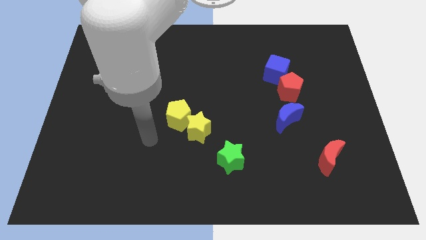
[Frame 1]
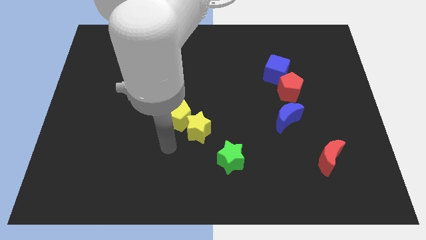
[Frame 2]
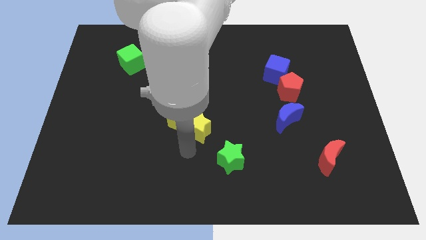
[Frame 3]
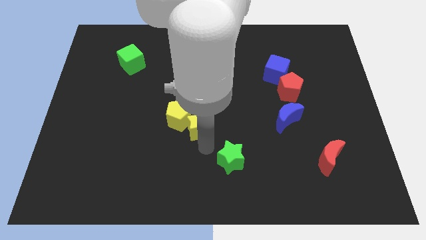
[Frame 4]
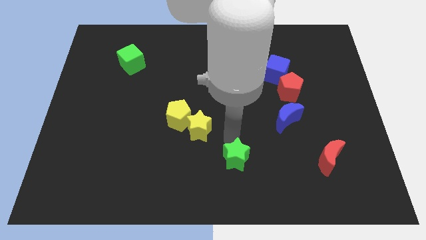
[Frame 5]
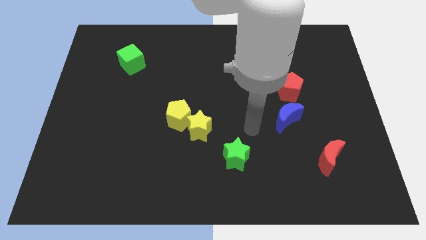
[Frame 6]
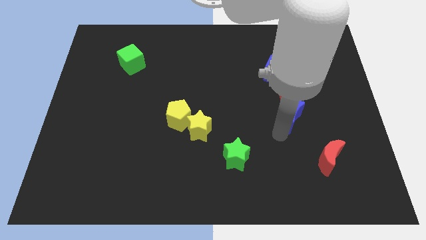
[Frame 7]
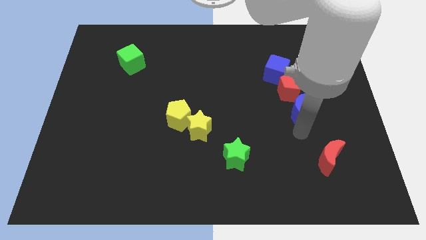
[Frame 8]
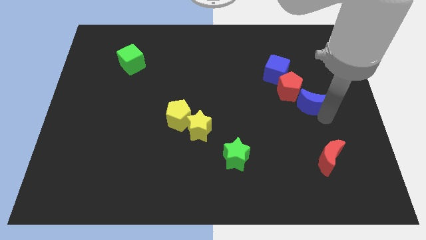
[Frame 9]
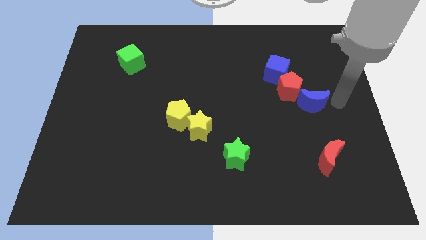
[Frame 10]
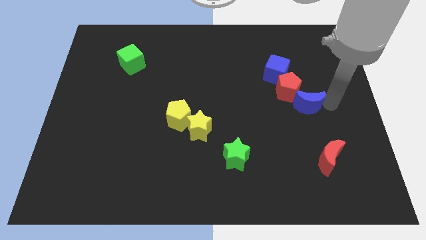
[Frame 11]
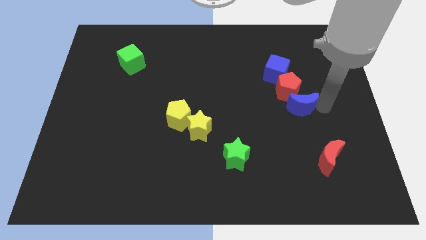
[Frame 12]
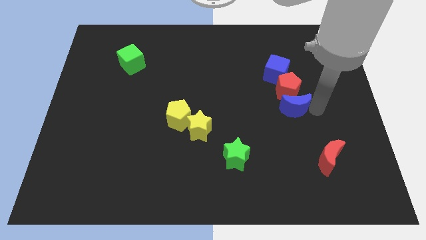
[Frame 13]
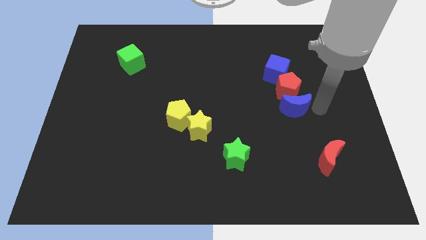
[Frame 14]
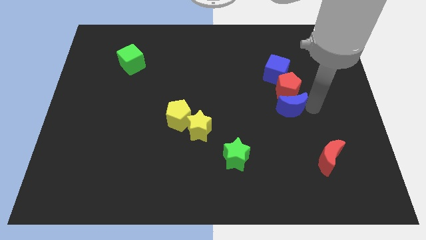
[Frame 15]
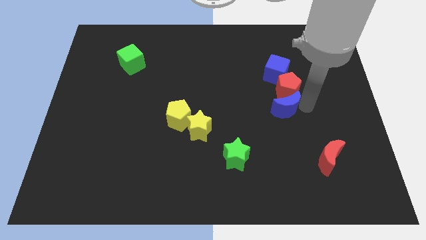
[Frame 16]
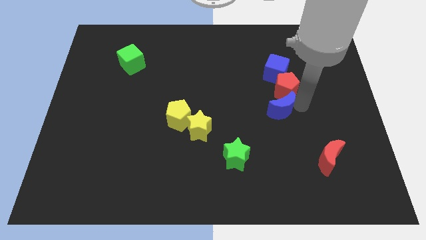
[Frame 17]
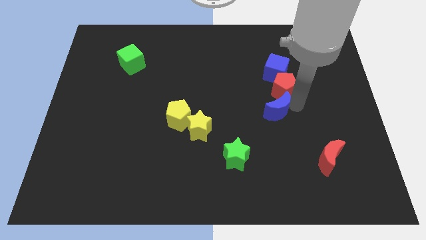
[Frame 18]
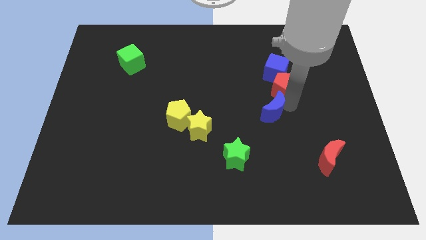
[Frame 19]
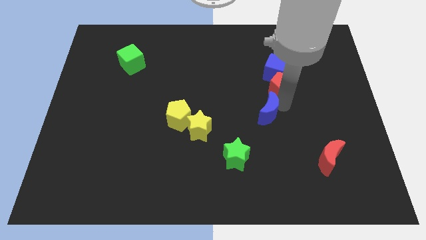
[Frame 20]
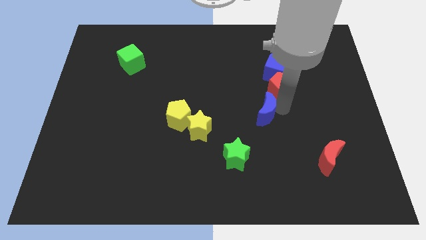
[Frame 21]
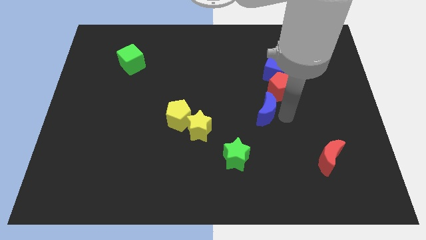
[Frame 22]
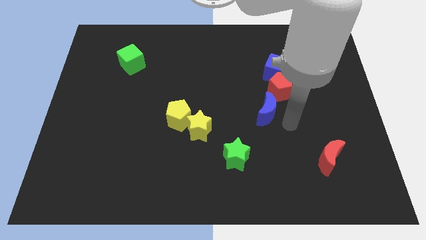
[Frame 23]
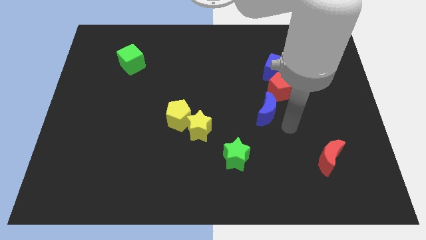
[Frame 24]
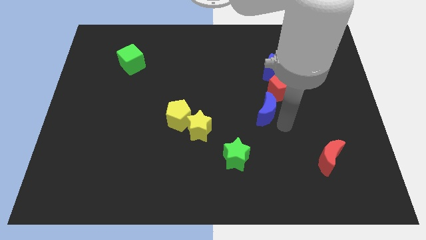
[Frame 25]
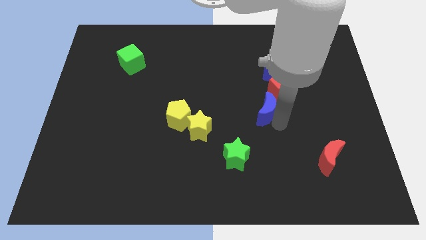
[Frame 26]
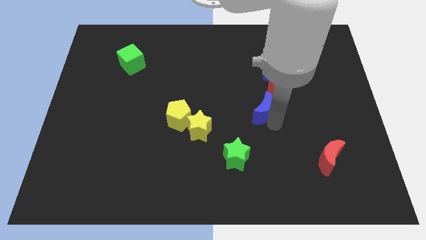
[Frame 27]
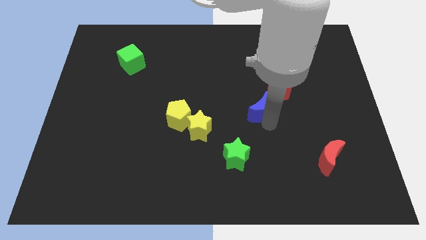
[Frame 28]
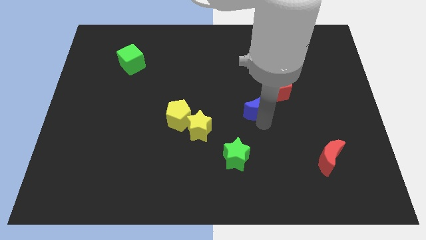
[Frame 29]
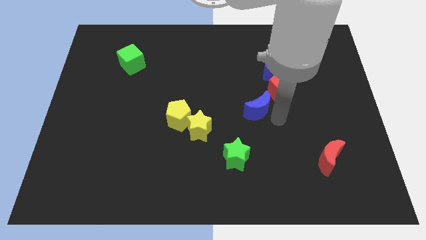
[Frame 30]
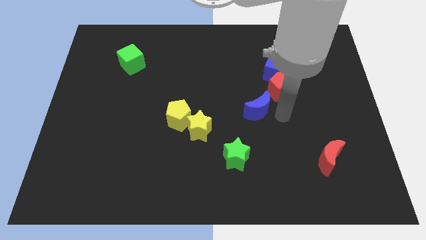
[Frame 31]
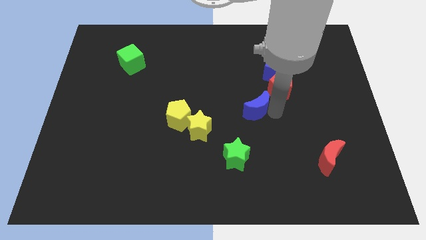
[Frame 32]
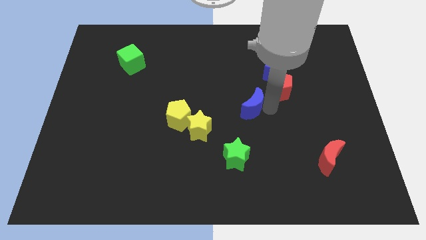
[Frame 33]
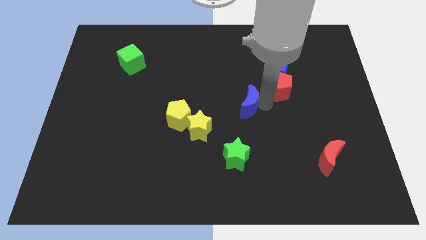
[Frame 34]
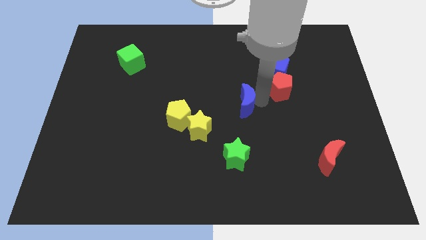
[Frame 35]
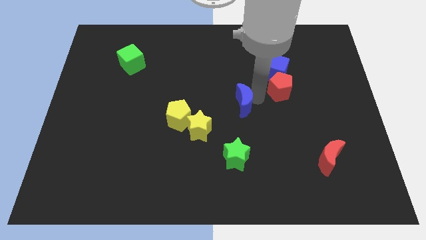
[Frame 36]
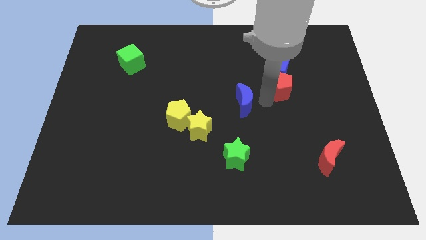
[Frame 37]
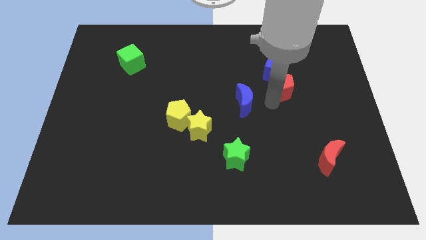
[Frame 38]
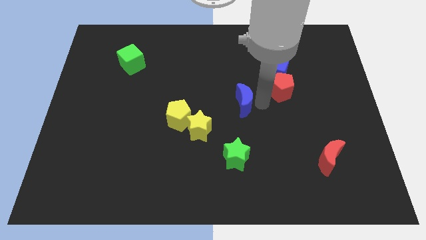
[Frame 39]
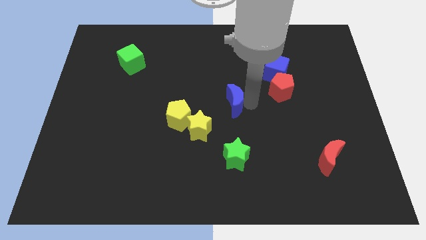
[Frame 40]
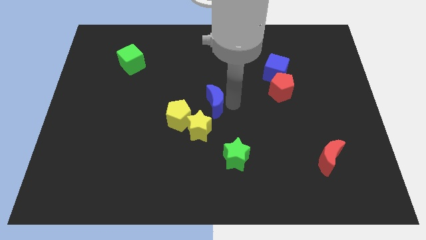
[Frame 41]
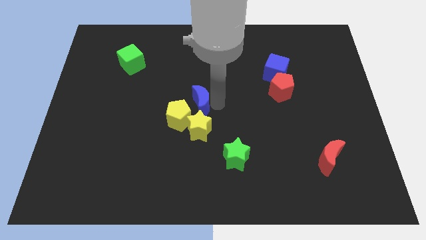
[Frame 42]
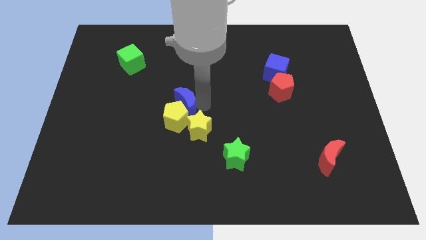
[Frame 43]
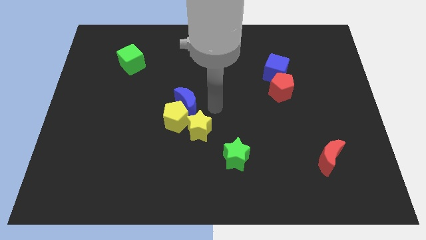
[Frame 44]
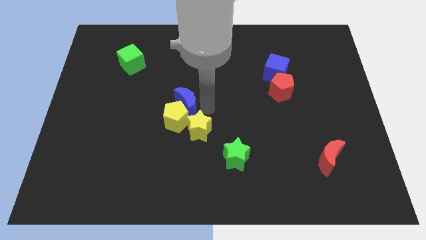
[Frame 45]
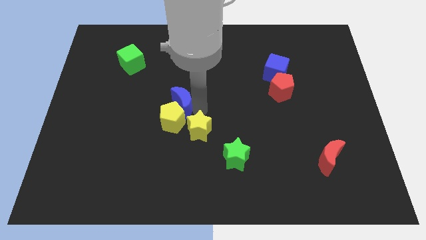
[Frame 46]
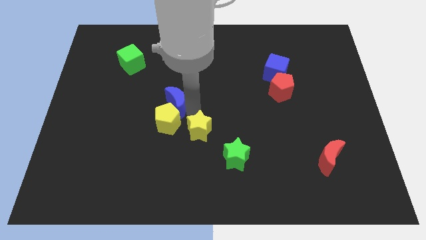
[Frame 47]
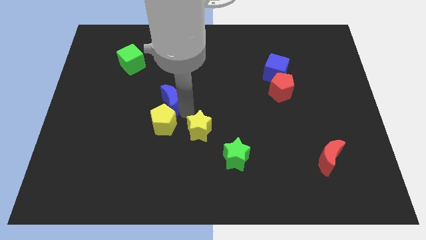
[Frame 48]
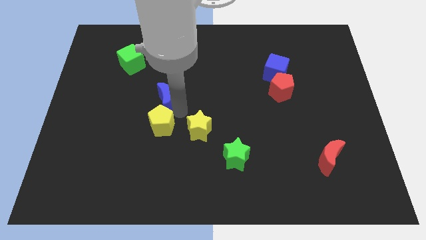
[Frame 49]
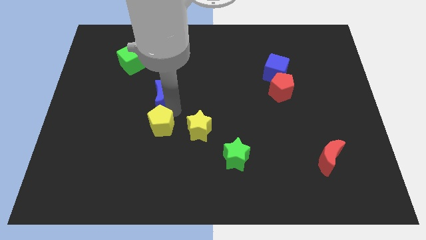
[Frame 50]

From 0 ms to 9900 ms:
move the blue moon to the top left of the yellow pentagon

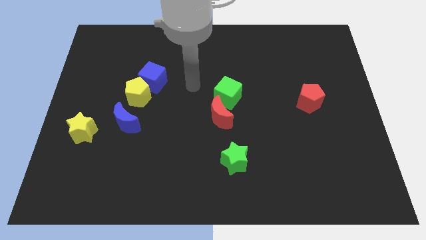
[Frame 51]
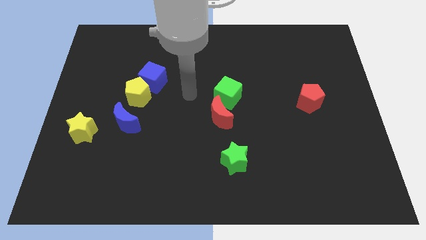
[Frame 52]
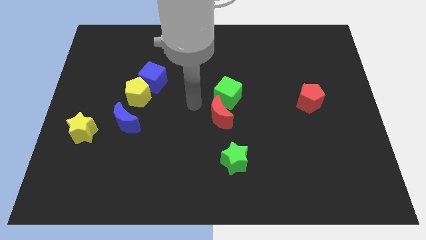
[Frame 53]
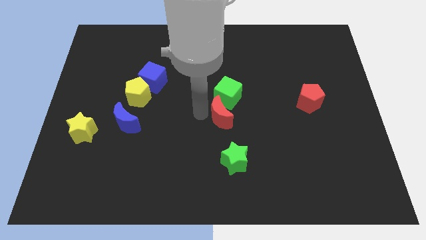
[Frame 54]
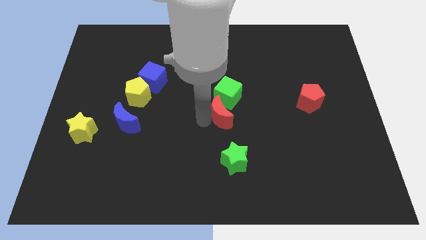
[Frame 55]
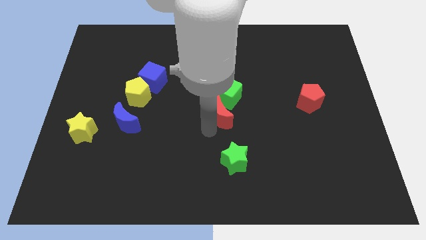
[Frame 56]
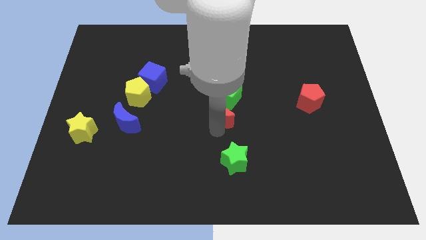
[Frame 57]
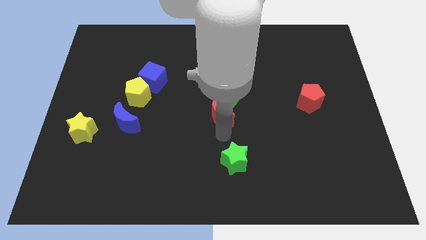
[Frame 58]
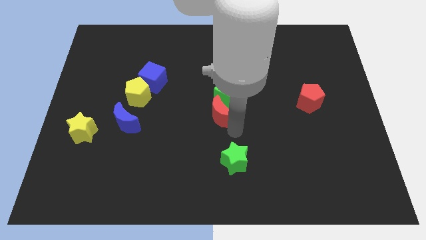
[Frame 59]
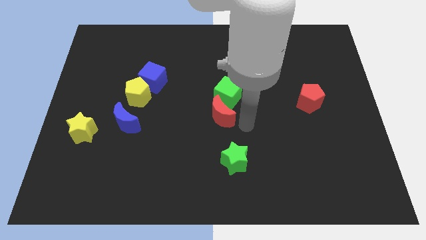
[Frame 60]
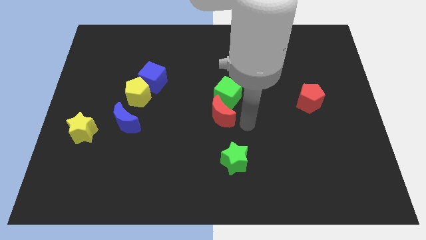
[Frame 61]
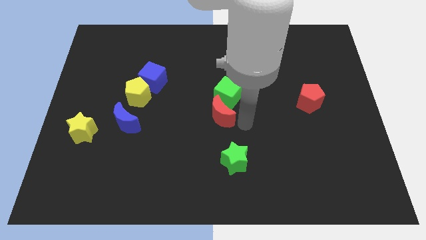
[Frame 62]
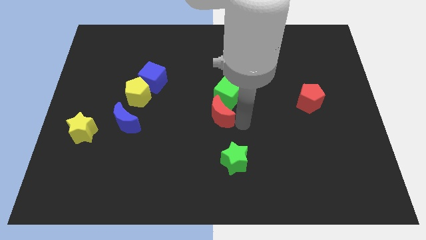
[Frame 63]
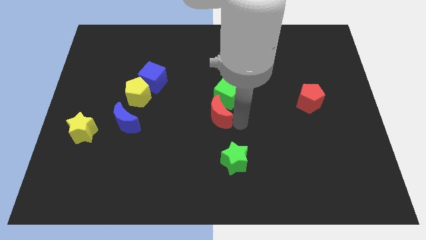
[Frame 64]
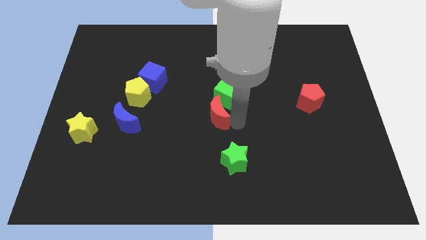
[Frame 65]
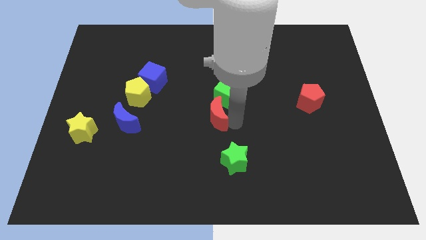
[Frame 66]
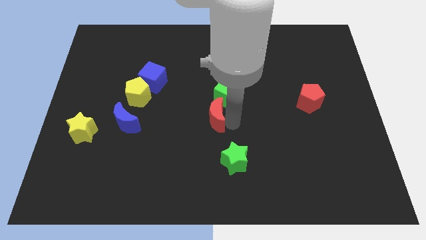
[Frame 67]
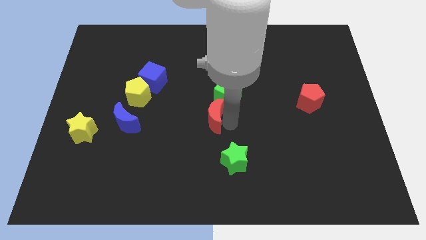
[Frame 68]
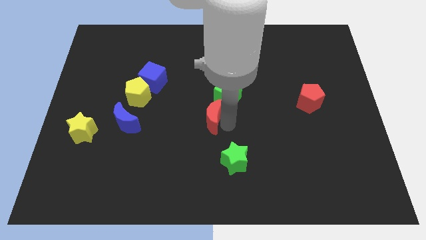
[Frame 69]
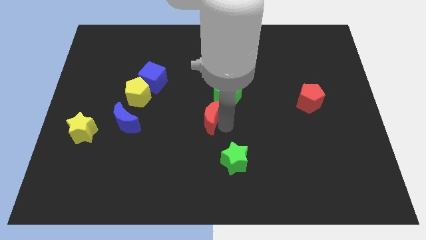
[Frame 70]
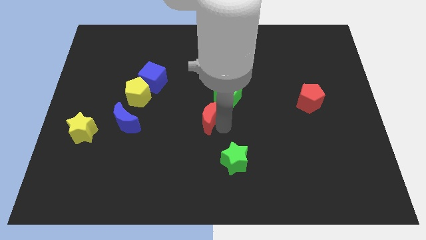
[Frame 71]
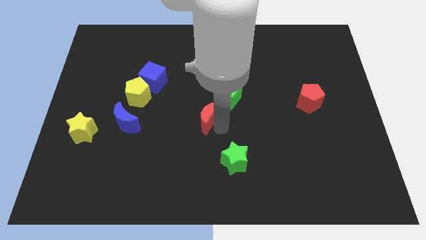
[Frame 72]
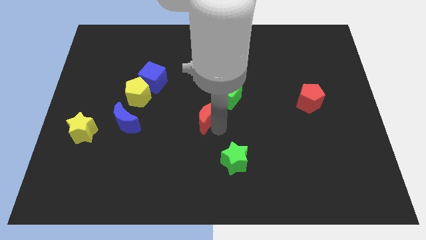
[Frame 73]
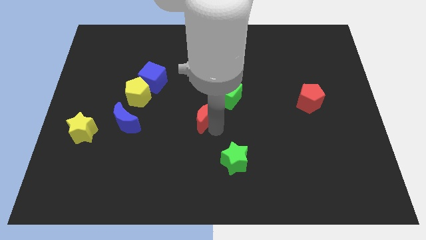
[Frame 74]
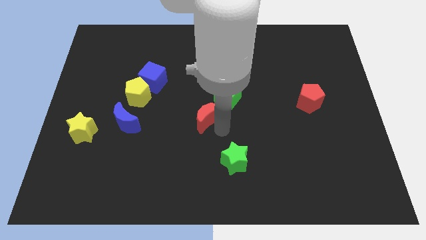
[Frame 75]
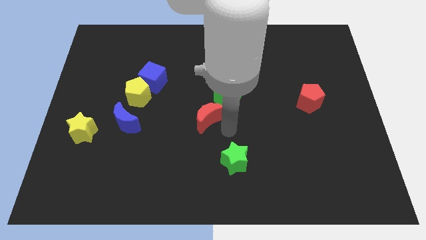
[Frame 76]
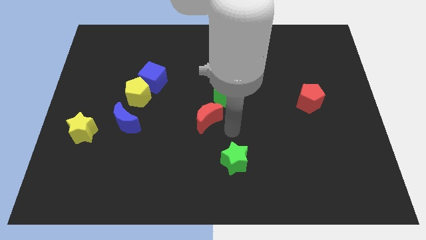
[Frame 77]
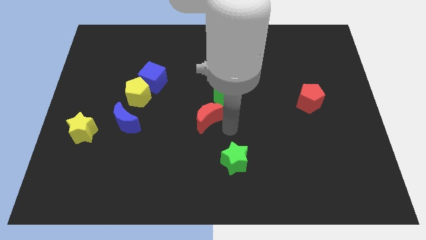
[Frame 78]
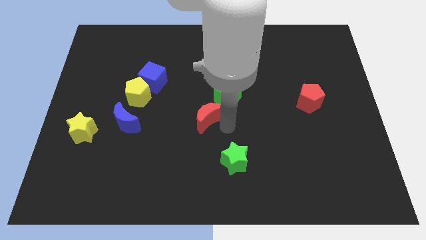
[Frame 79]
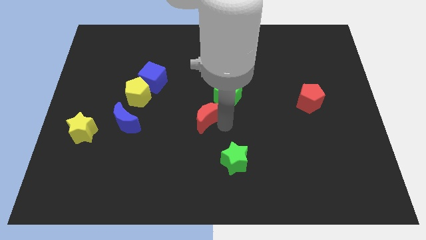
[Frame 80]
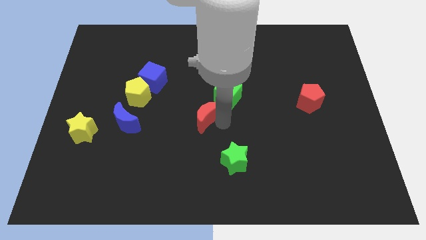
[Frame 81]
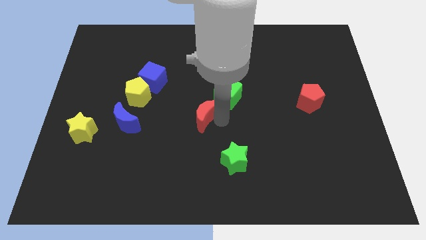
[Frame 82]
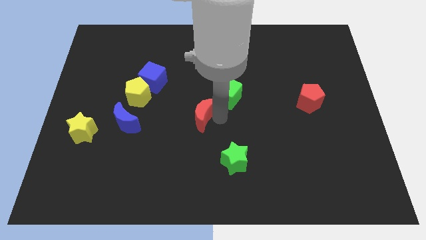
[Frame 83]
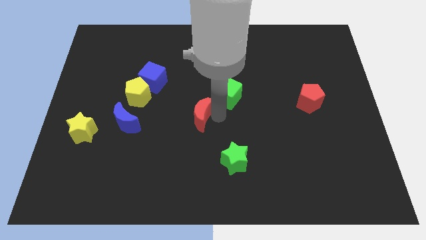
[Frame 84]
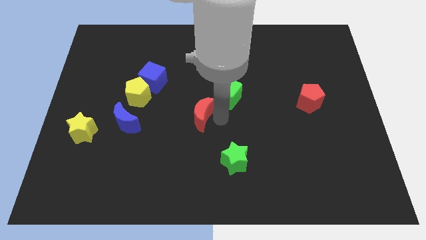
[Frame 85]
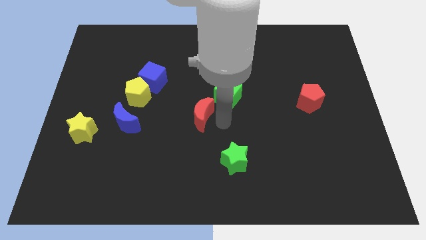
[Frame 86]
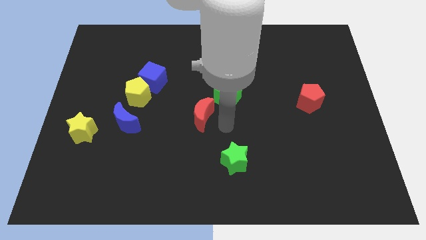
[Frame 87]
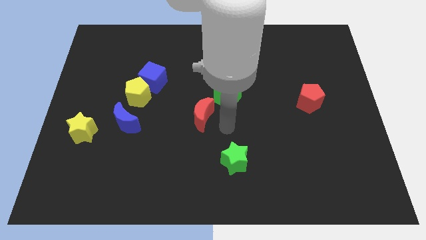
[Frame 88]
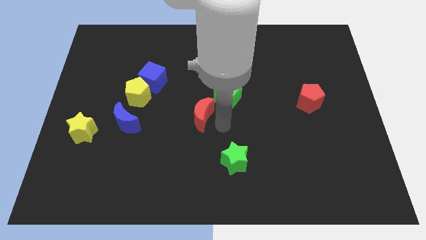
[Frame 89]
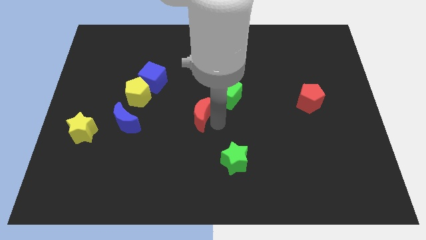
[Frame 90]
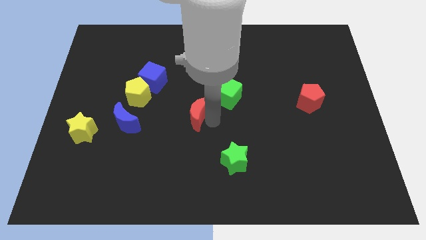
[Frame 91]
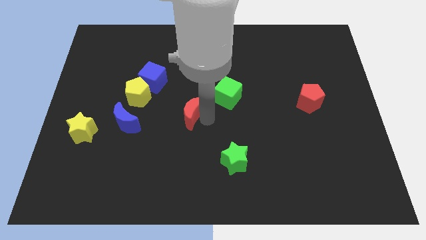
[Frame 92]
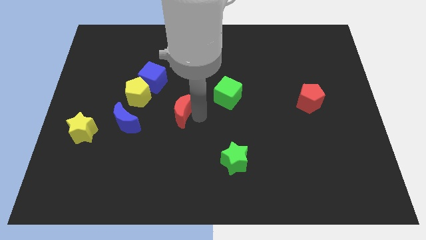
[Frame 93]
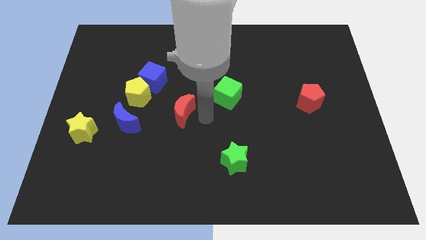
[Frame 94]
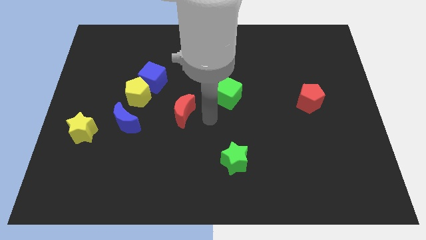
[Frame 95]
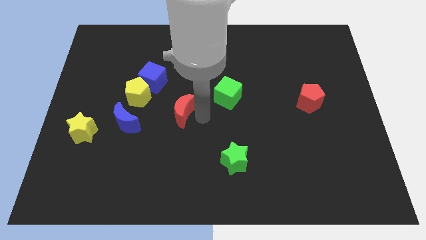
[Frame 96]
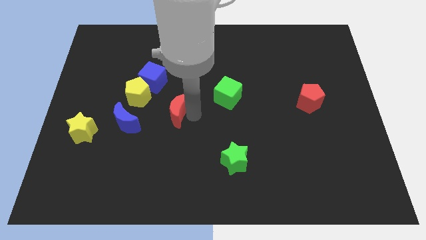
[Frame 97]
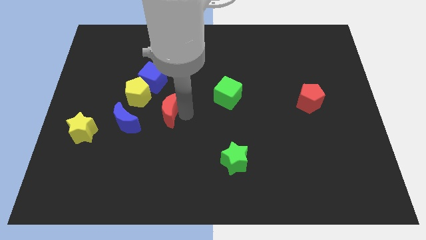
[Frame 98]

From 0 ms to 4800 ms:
move the red moon to the top right side of the blue moon
